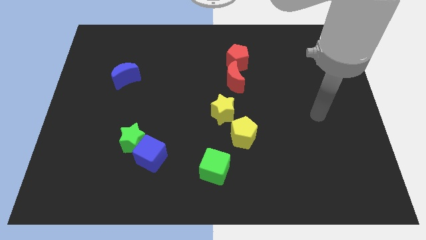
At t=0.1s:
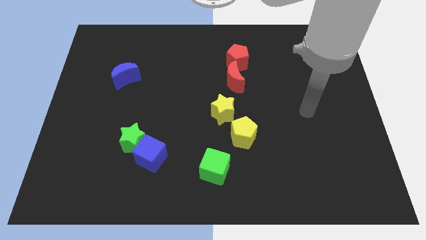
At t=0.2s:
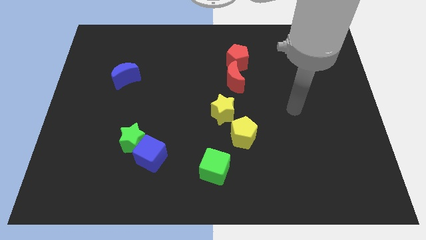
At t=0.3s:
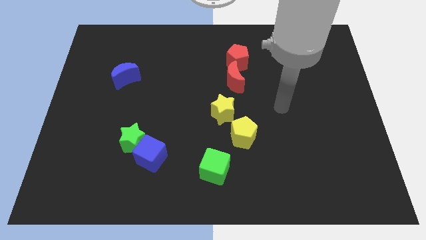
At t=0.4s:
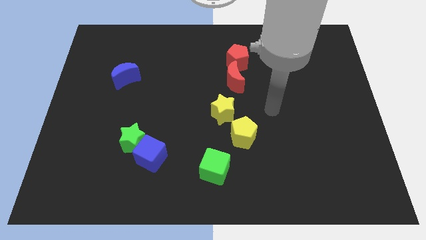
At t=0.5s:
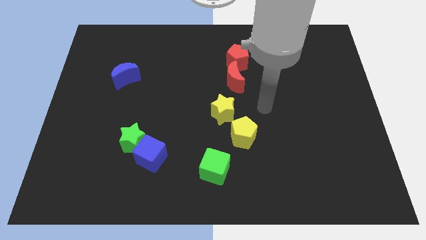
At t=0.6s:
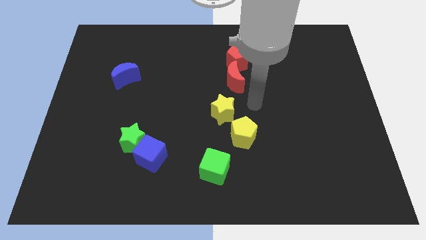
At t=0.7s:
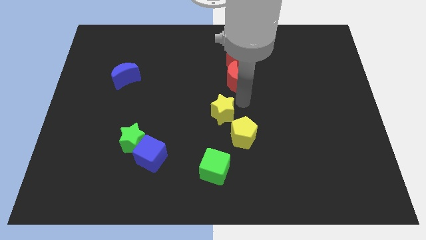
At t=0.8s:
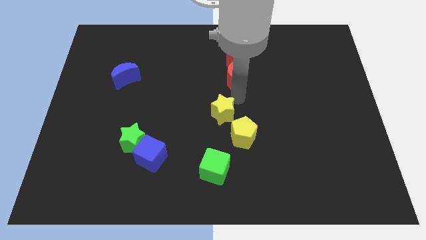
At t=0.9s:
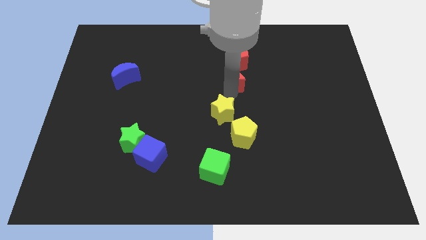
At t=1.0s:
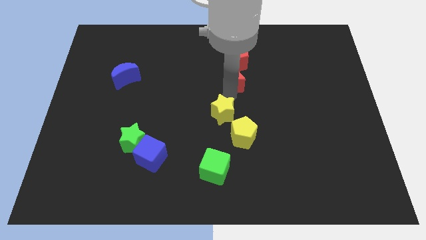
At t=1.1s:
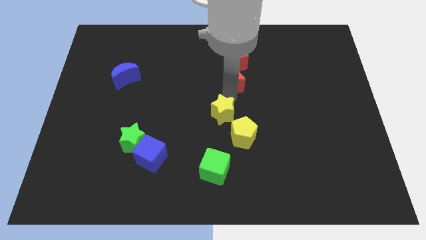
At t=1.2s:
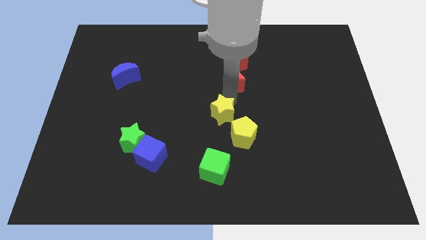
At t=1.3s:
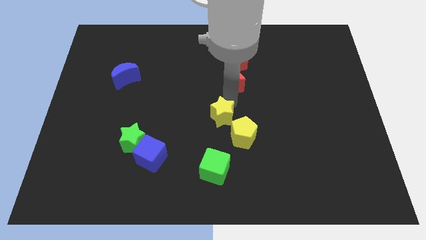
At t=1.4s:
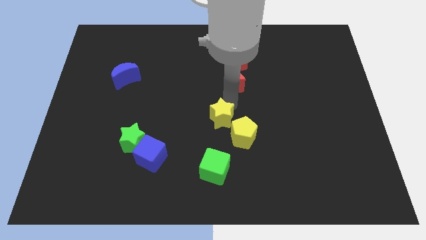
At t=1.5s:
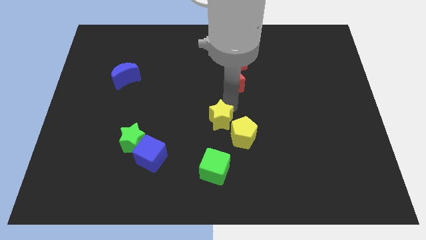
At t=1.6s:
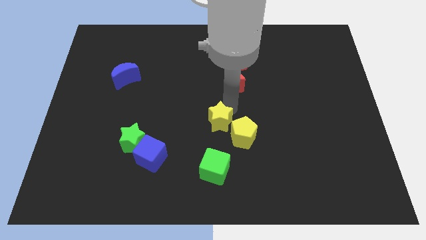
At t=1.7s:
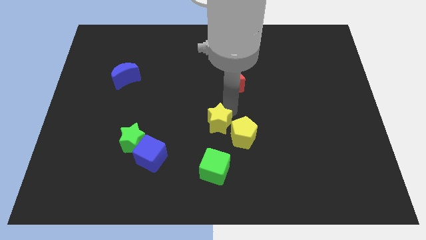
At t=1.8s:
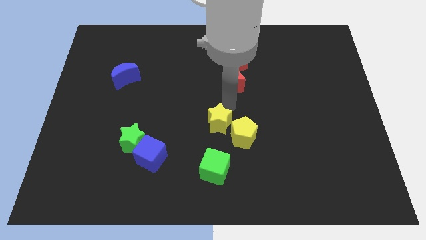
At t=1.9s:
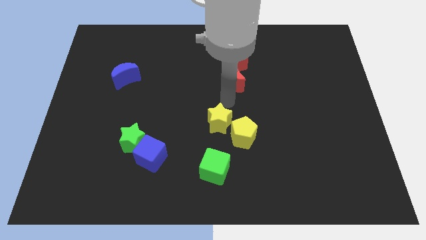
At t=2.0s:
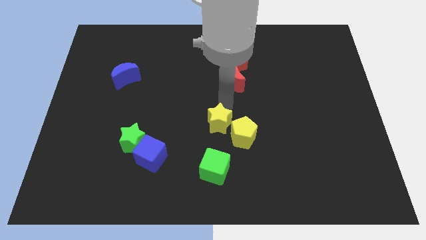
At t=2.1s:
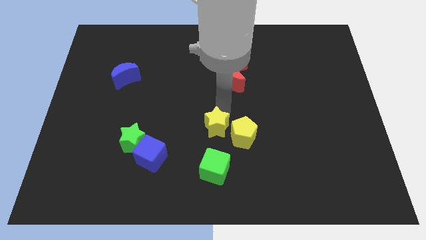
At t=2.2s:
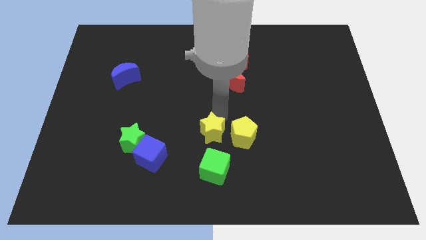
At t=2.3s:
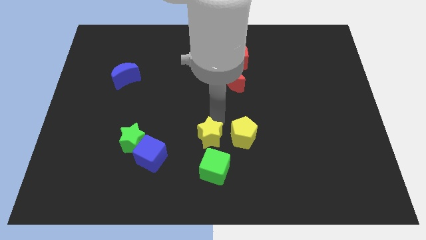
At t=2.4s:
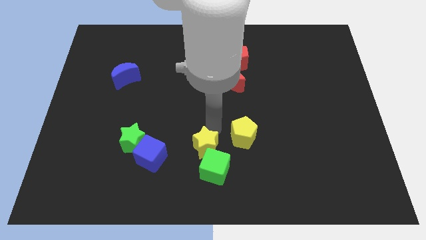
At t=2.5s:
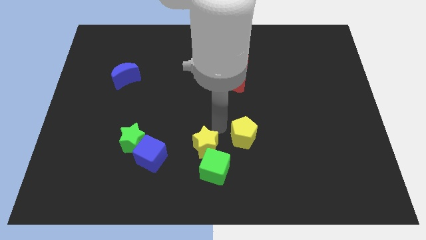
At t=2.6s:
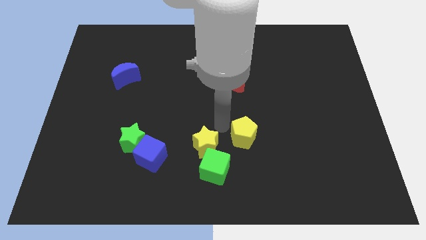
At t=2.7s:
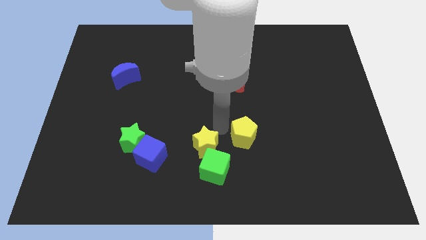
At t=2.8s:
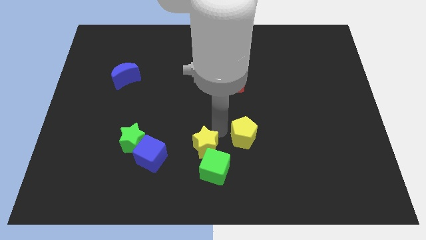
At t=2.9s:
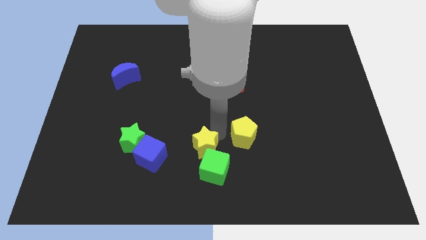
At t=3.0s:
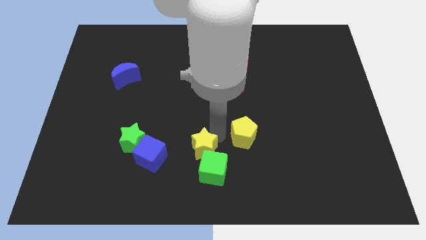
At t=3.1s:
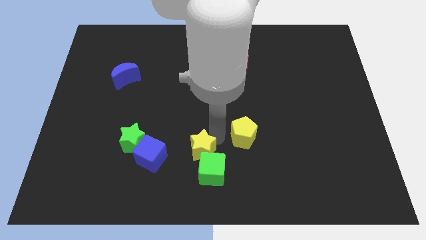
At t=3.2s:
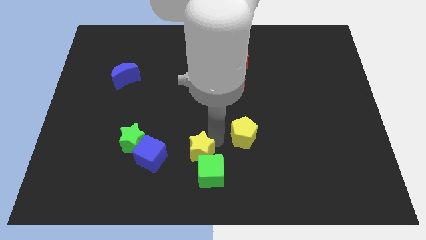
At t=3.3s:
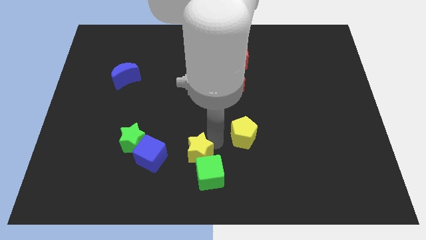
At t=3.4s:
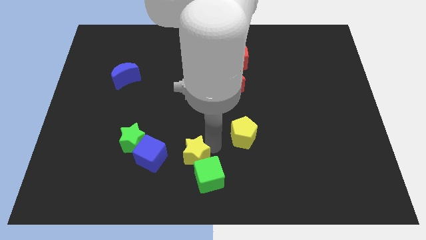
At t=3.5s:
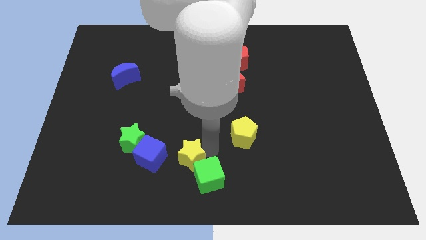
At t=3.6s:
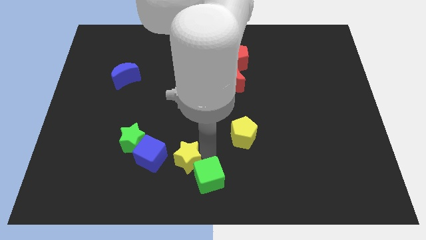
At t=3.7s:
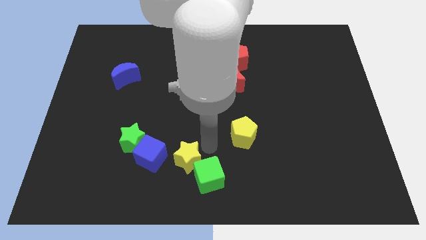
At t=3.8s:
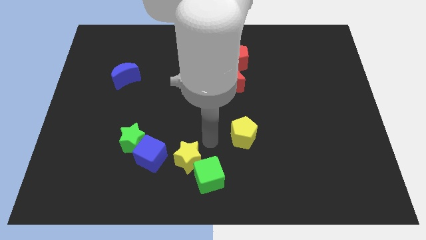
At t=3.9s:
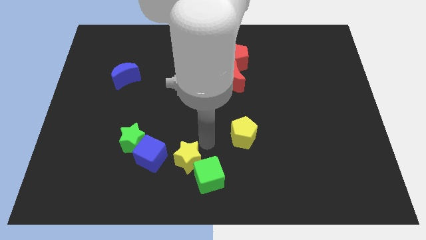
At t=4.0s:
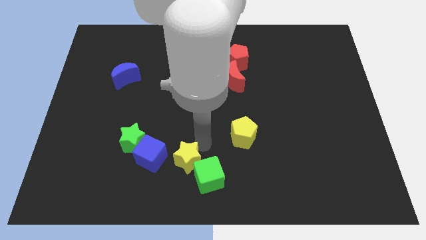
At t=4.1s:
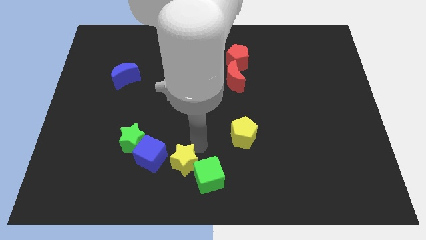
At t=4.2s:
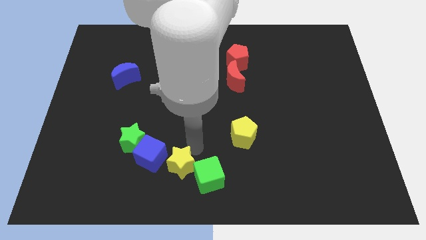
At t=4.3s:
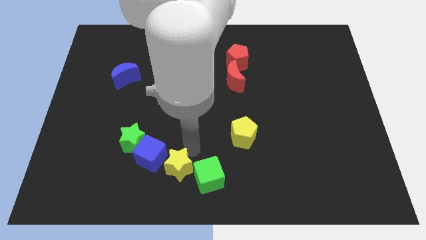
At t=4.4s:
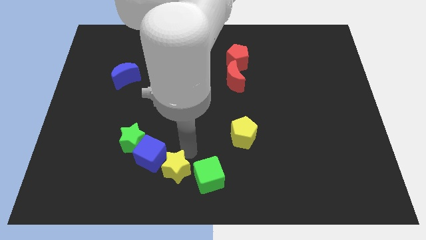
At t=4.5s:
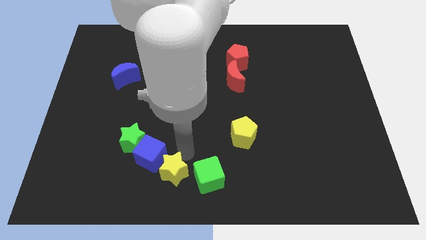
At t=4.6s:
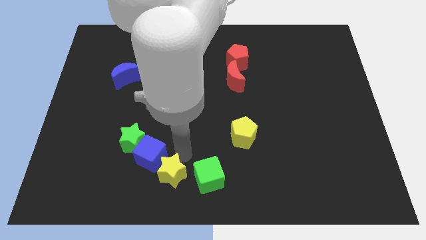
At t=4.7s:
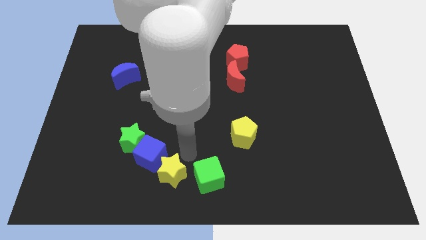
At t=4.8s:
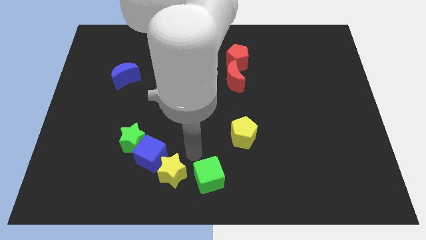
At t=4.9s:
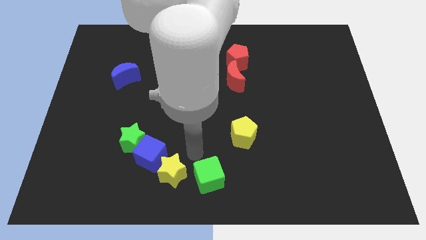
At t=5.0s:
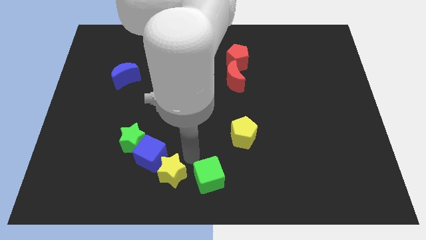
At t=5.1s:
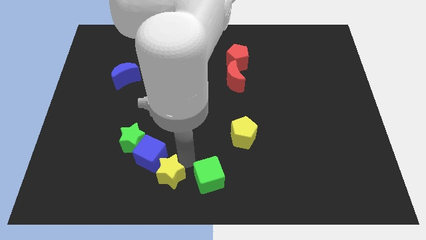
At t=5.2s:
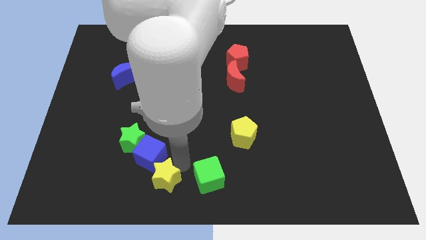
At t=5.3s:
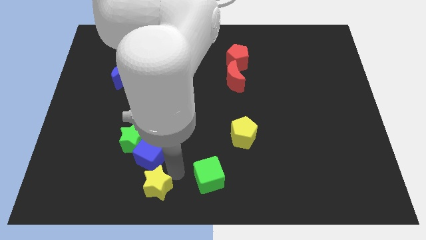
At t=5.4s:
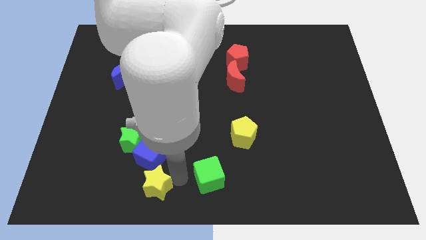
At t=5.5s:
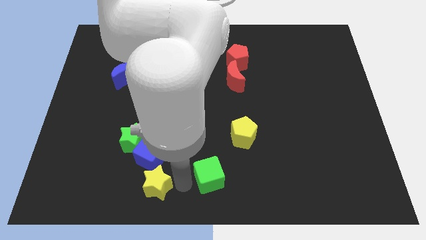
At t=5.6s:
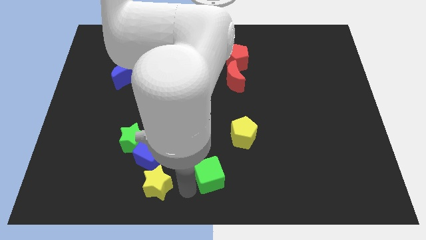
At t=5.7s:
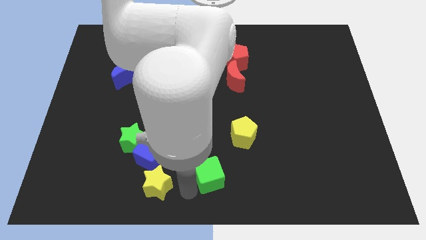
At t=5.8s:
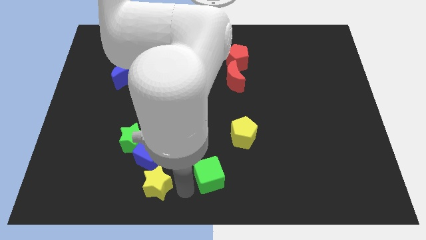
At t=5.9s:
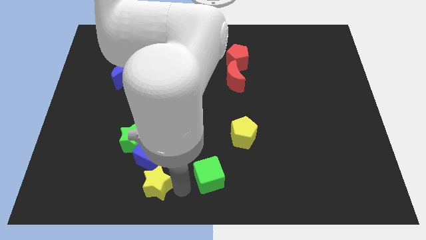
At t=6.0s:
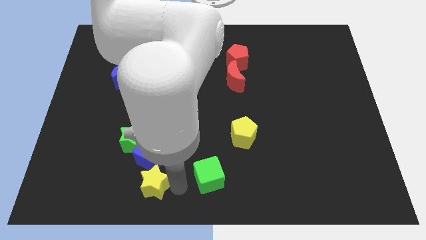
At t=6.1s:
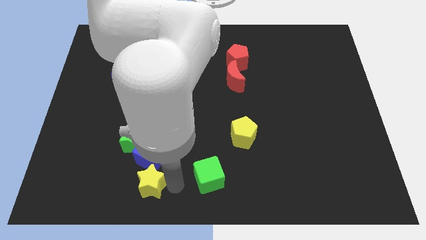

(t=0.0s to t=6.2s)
put the yellow star to the bottom left side of the blue cube

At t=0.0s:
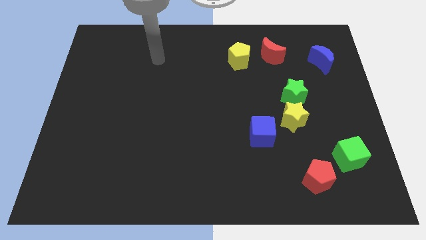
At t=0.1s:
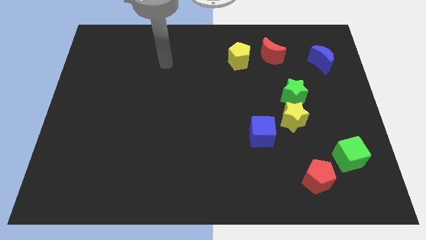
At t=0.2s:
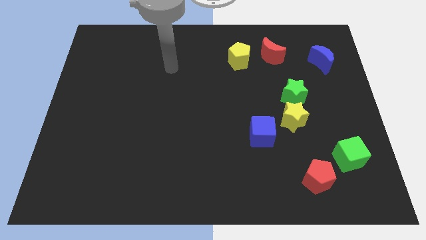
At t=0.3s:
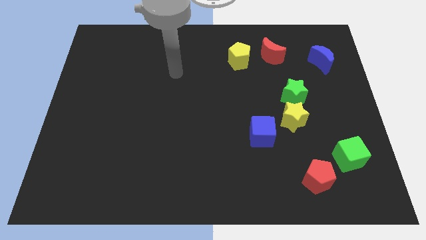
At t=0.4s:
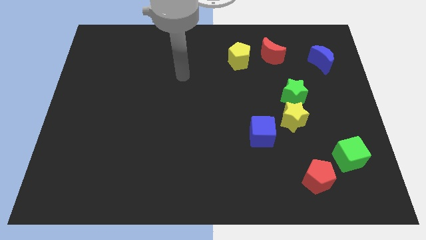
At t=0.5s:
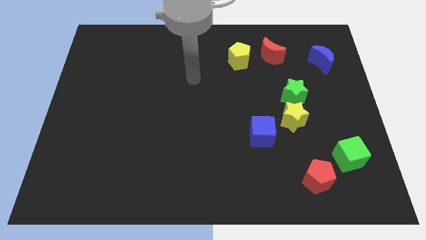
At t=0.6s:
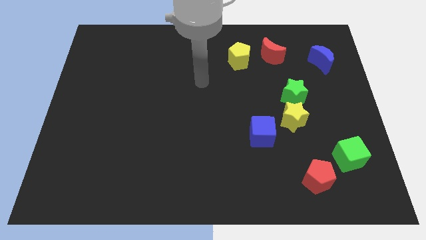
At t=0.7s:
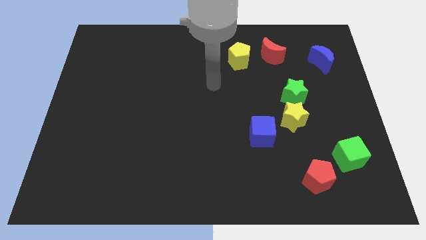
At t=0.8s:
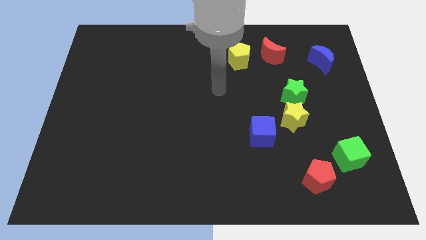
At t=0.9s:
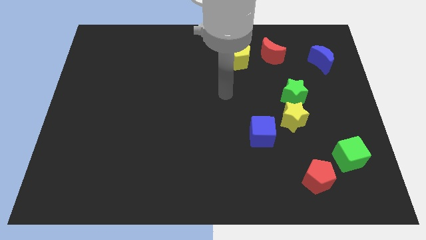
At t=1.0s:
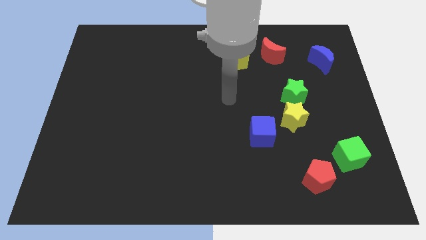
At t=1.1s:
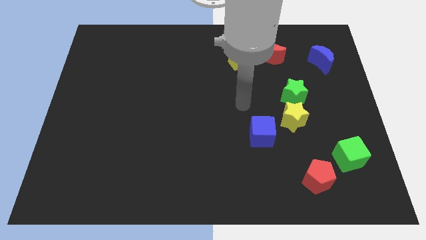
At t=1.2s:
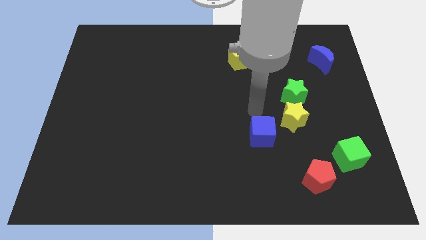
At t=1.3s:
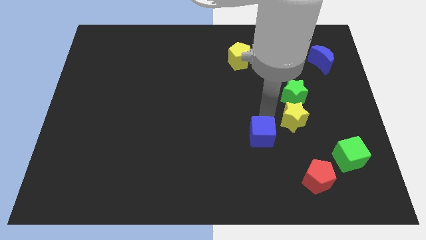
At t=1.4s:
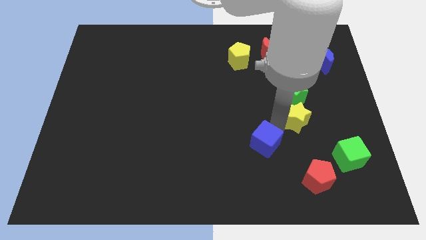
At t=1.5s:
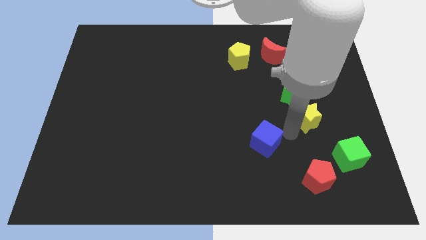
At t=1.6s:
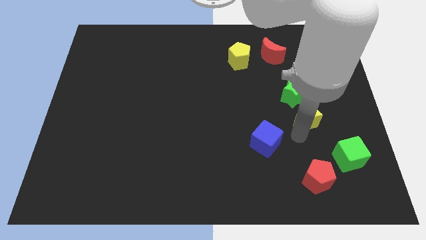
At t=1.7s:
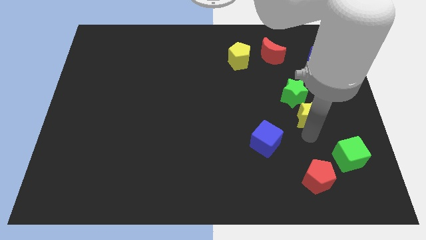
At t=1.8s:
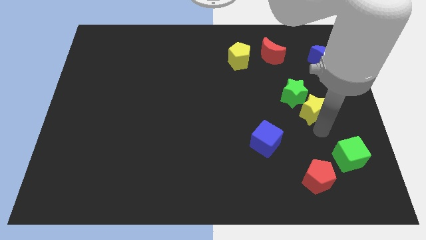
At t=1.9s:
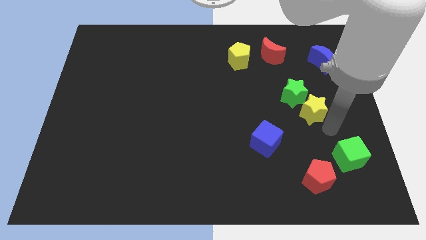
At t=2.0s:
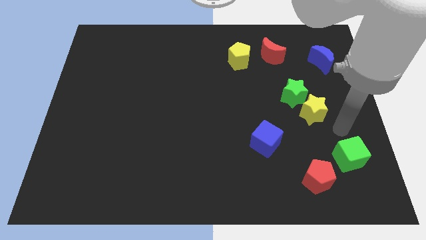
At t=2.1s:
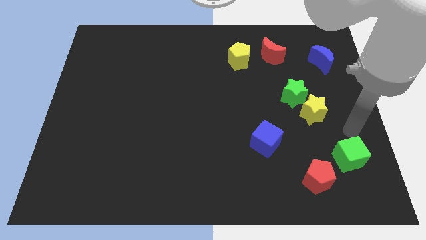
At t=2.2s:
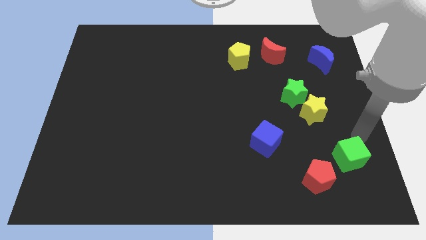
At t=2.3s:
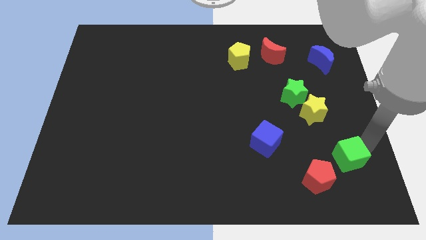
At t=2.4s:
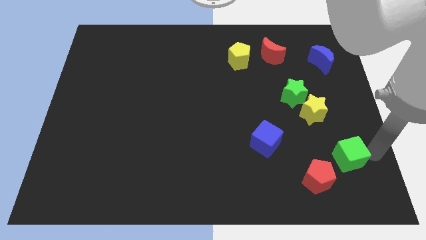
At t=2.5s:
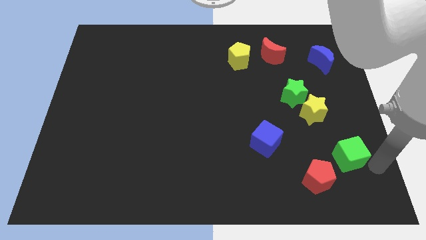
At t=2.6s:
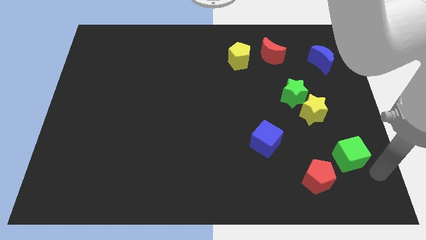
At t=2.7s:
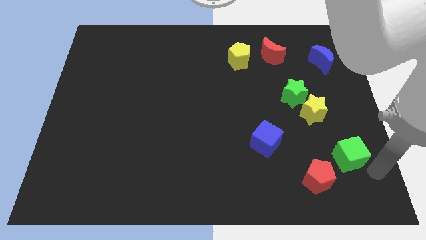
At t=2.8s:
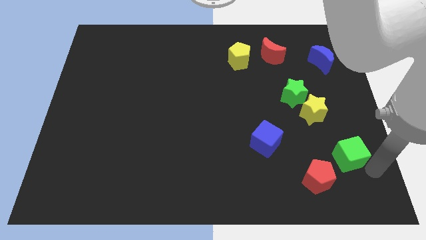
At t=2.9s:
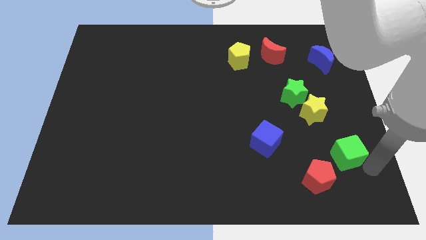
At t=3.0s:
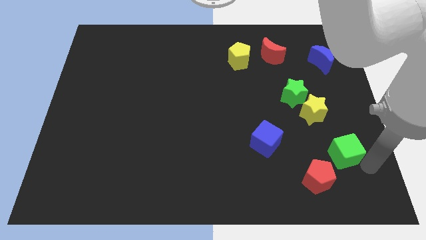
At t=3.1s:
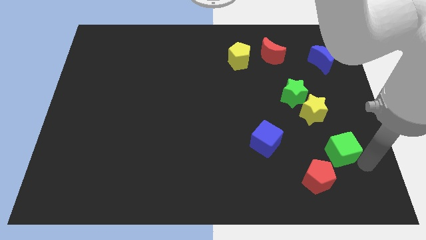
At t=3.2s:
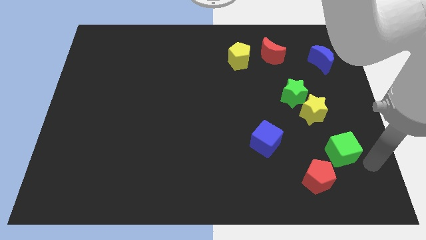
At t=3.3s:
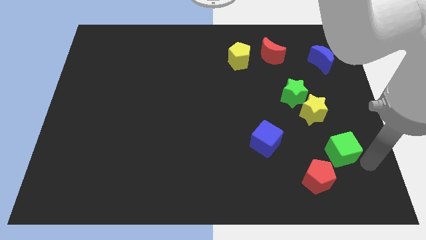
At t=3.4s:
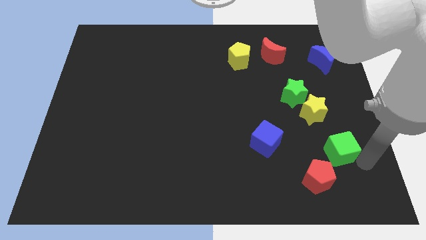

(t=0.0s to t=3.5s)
push the green cube to the right of the blue cube
